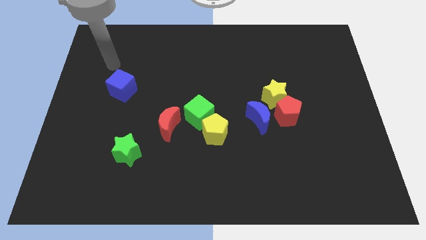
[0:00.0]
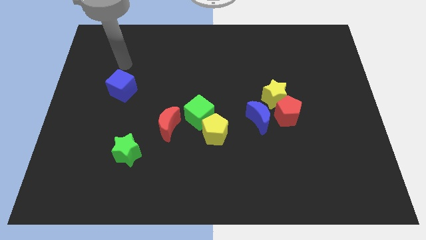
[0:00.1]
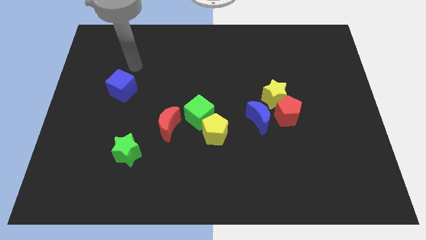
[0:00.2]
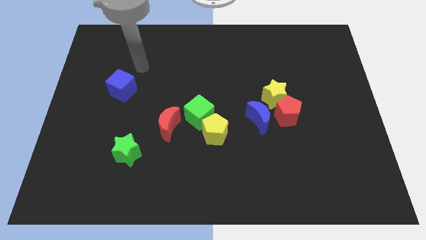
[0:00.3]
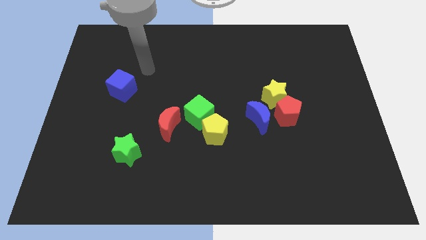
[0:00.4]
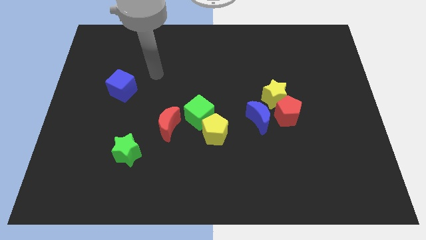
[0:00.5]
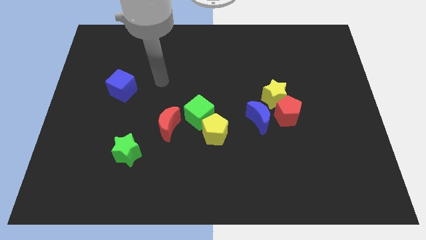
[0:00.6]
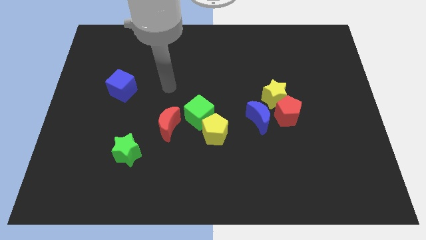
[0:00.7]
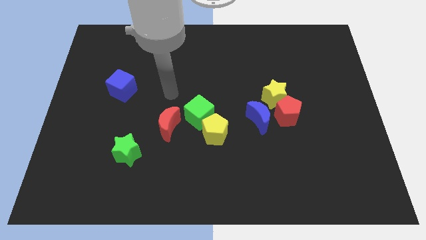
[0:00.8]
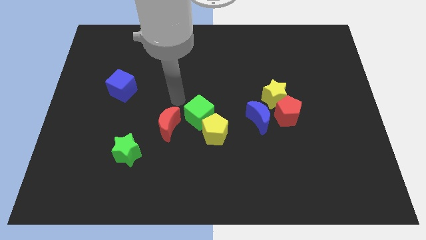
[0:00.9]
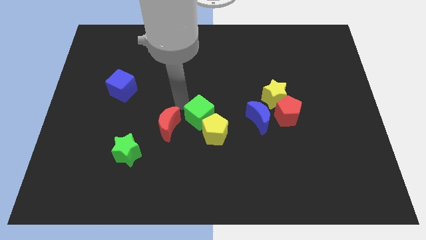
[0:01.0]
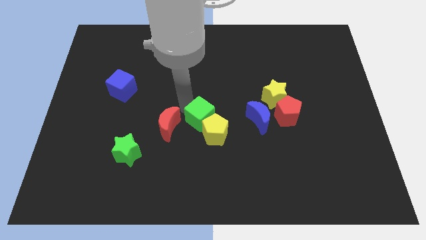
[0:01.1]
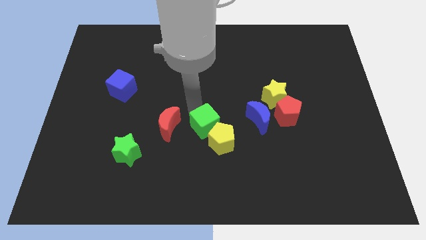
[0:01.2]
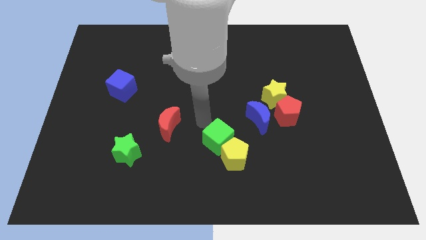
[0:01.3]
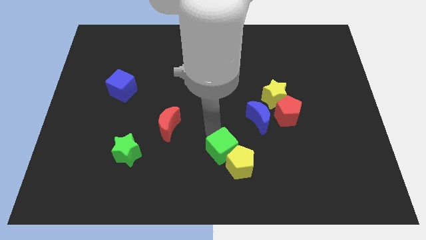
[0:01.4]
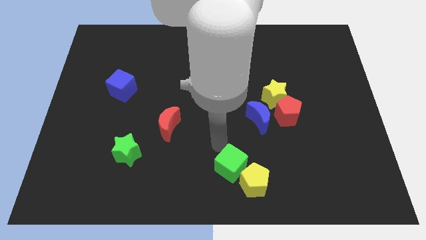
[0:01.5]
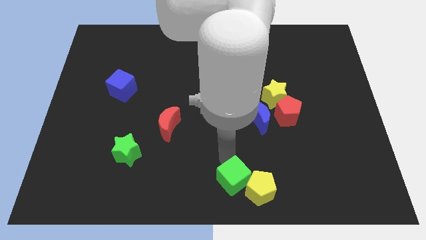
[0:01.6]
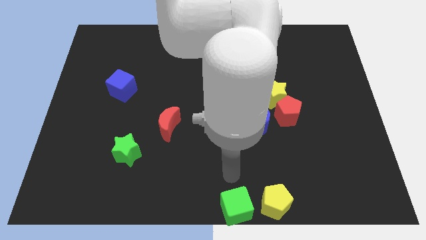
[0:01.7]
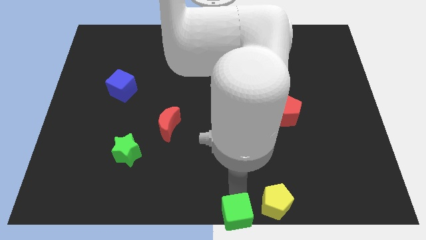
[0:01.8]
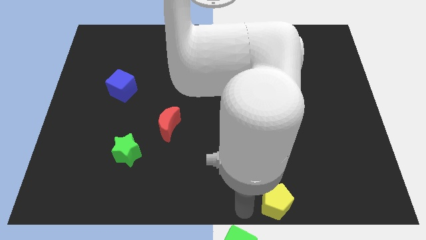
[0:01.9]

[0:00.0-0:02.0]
pull the yellow pentagon apart from the green cube

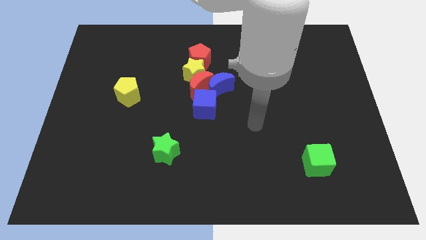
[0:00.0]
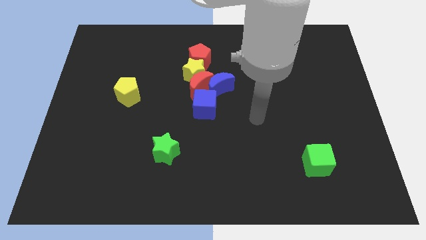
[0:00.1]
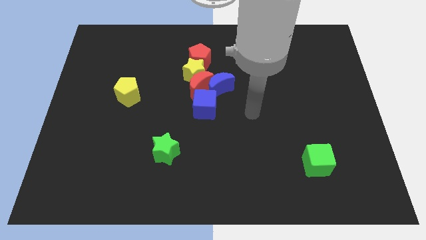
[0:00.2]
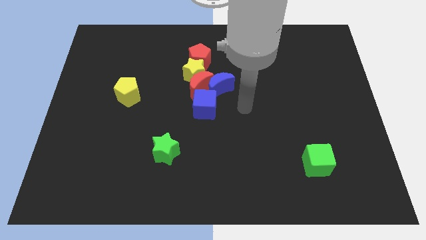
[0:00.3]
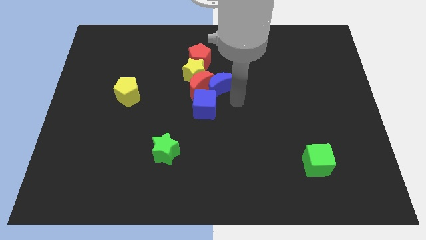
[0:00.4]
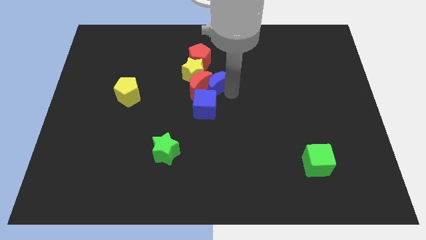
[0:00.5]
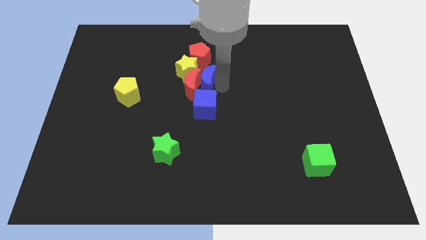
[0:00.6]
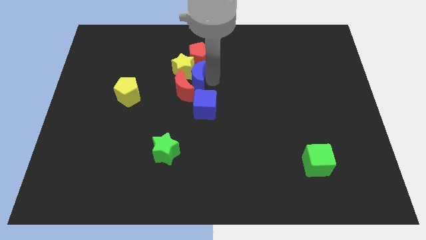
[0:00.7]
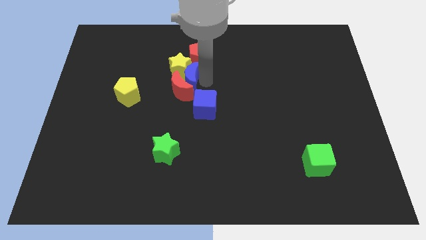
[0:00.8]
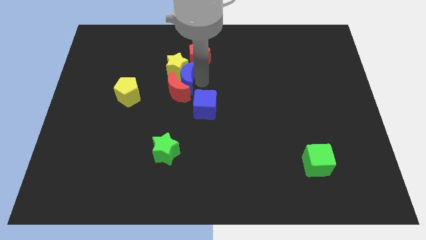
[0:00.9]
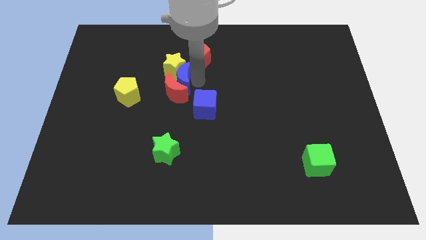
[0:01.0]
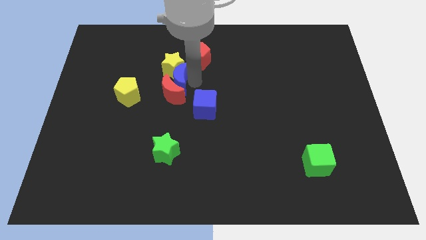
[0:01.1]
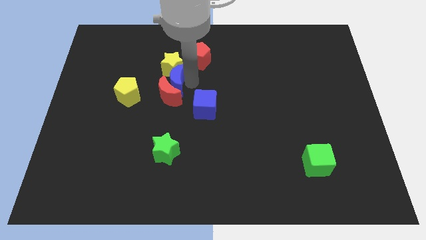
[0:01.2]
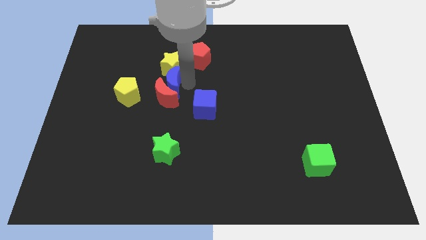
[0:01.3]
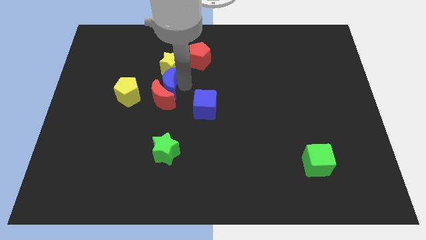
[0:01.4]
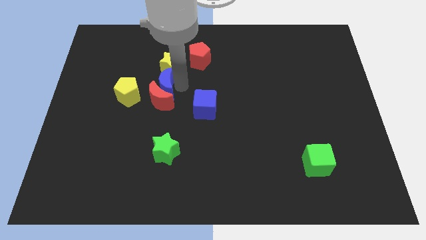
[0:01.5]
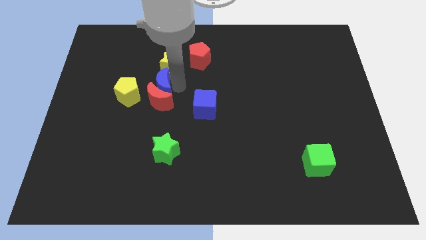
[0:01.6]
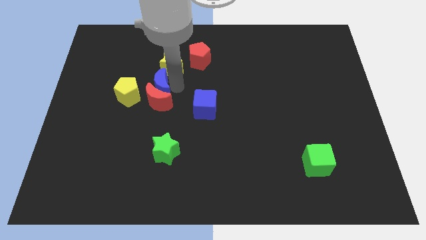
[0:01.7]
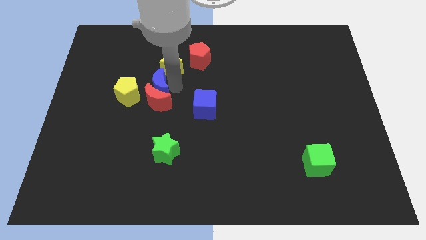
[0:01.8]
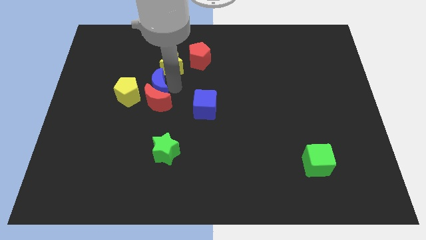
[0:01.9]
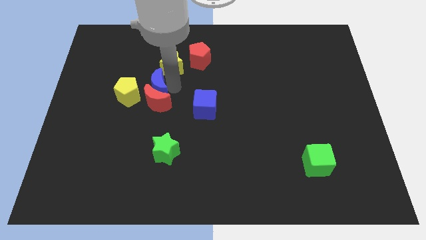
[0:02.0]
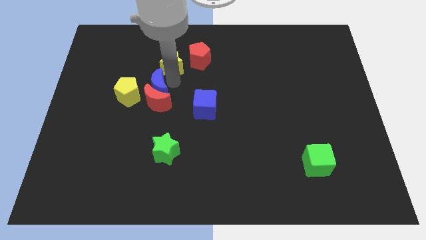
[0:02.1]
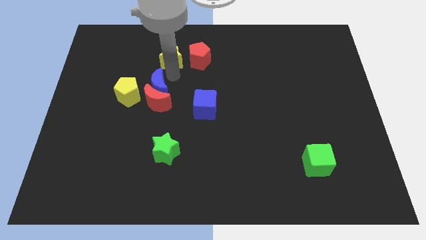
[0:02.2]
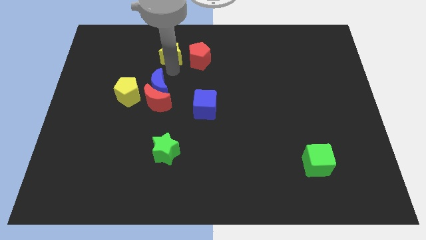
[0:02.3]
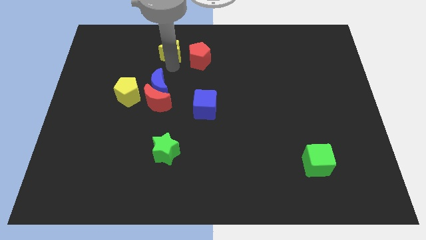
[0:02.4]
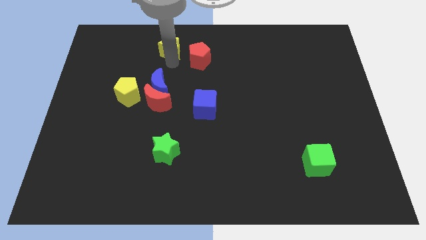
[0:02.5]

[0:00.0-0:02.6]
move the yellow star away from the red moon, red pentagon, and blue moon

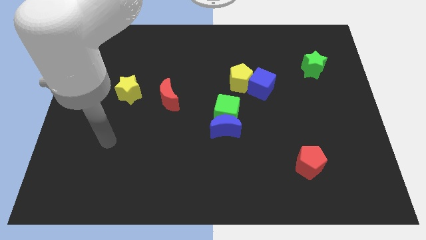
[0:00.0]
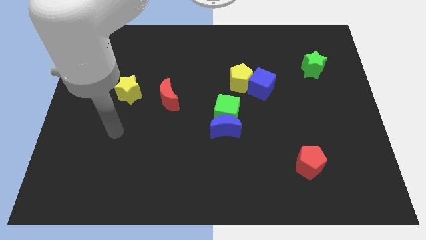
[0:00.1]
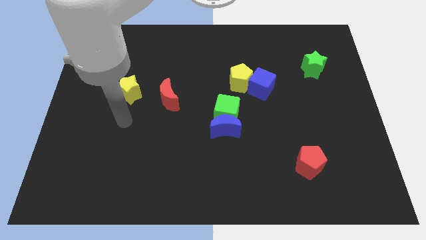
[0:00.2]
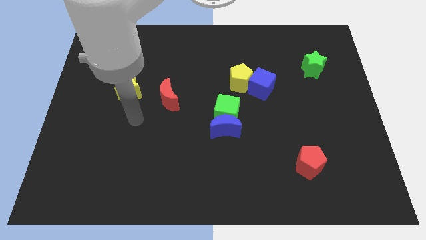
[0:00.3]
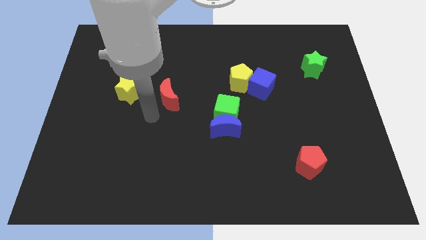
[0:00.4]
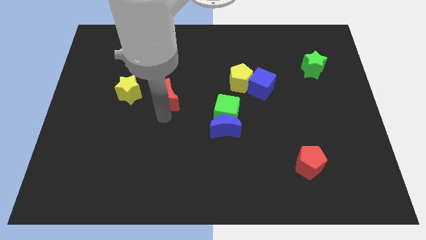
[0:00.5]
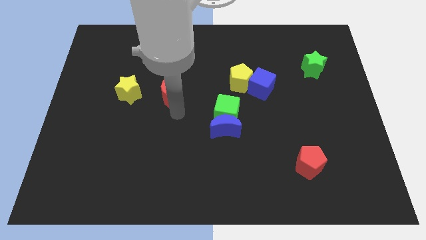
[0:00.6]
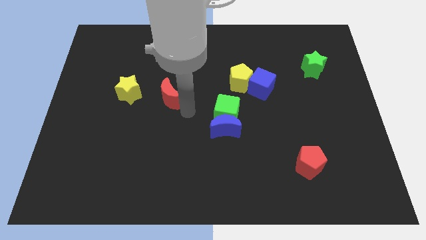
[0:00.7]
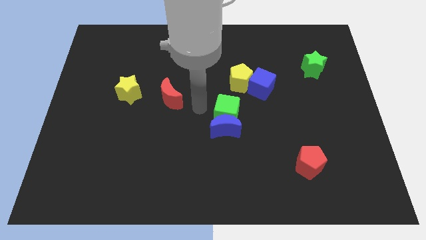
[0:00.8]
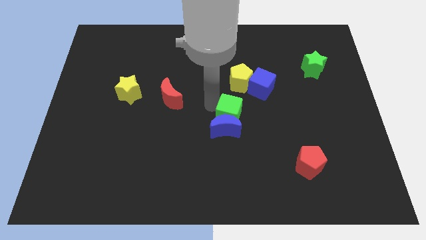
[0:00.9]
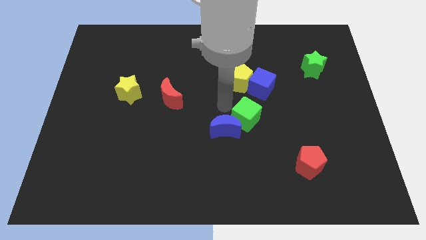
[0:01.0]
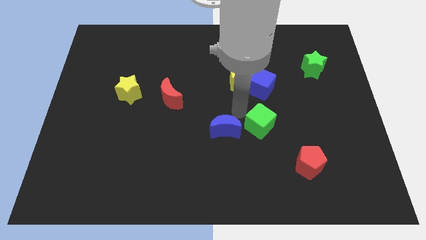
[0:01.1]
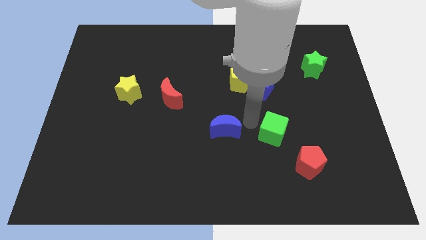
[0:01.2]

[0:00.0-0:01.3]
move the blue moon away from the green cube

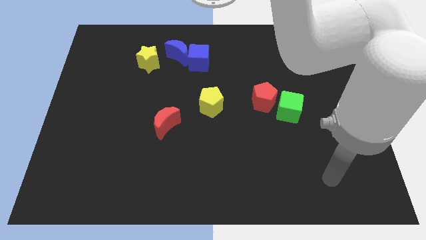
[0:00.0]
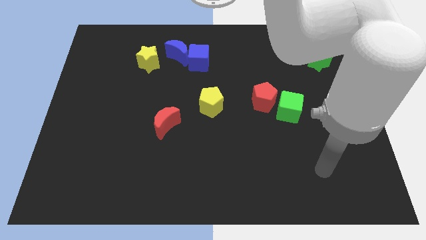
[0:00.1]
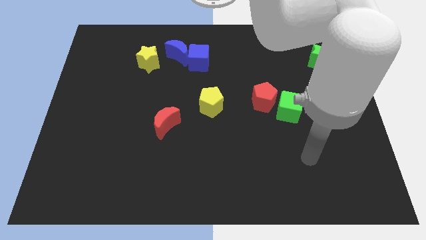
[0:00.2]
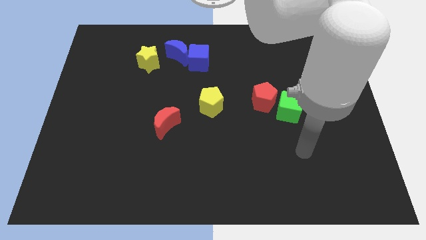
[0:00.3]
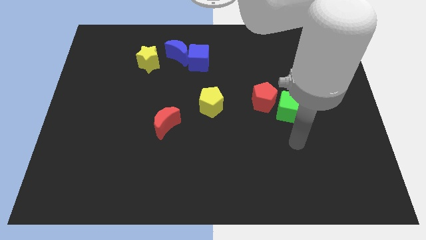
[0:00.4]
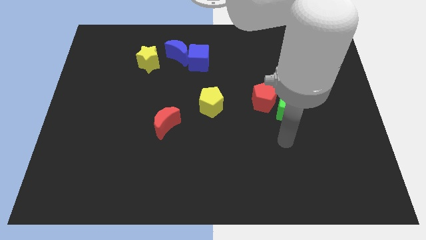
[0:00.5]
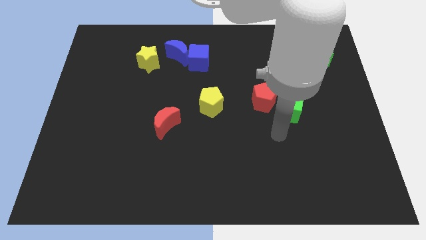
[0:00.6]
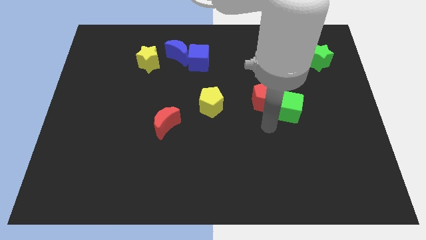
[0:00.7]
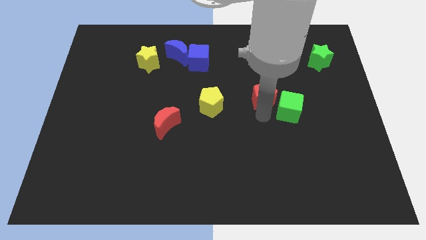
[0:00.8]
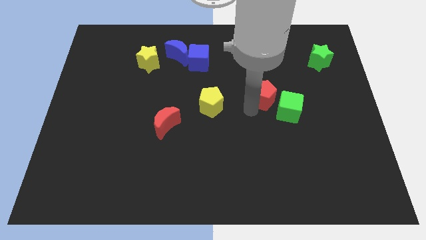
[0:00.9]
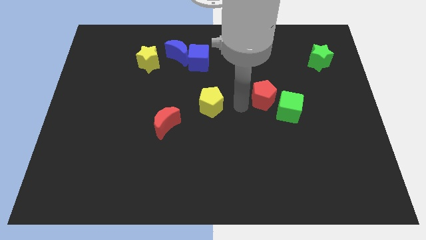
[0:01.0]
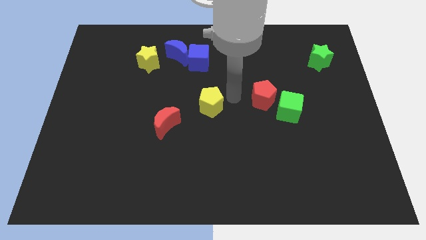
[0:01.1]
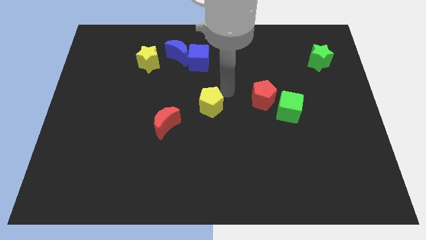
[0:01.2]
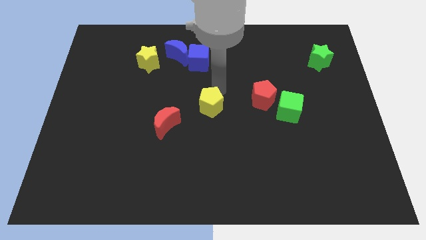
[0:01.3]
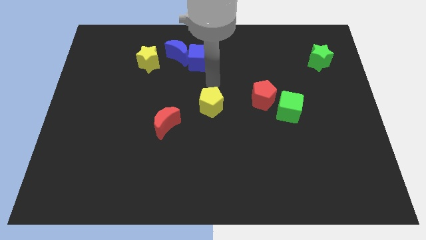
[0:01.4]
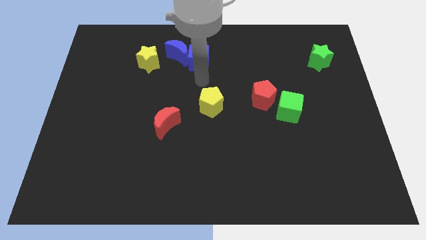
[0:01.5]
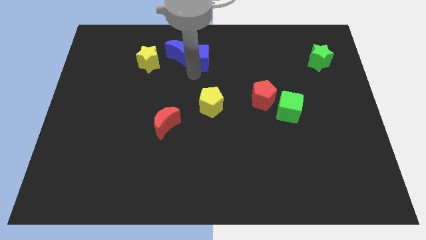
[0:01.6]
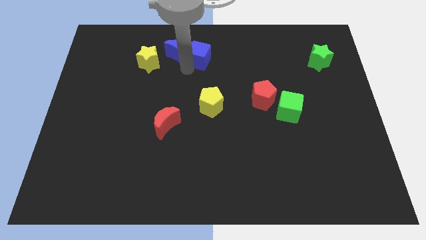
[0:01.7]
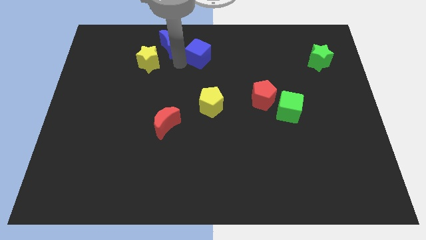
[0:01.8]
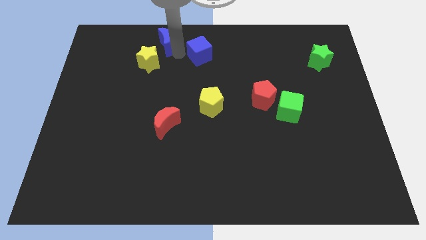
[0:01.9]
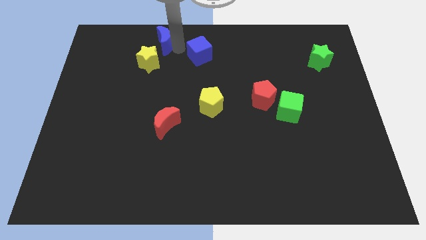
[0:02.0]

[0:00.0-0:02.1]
move the blue cube away from the blue moon

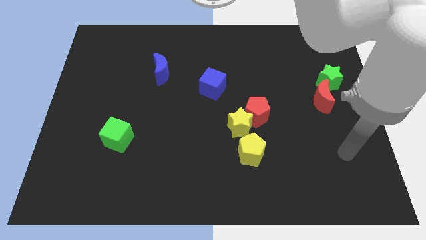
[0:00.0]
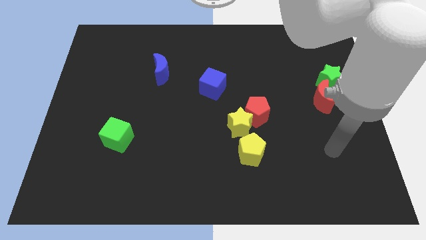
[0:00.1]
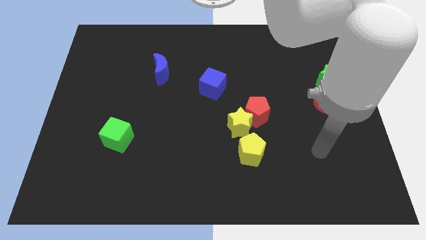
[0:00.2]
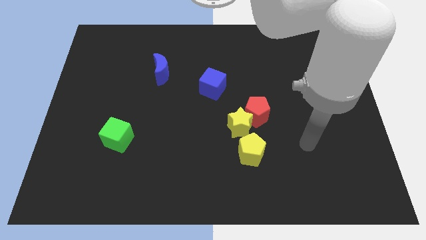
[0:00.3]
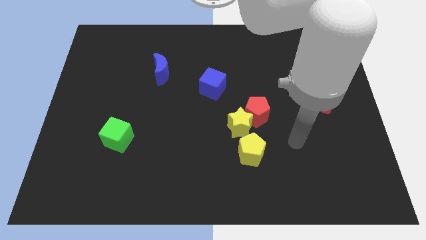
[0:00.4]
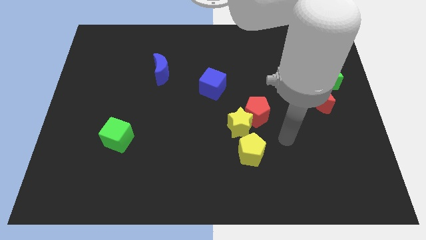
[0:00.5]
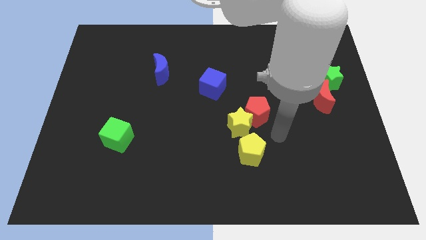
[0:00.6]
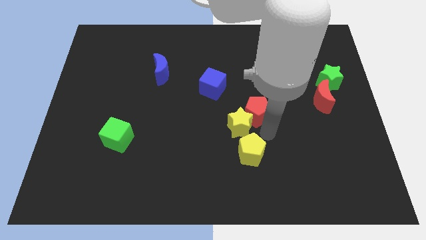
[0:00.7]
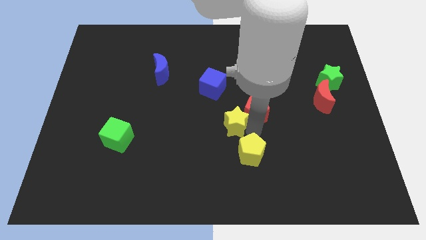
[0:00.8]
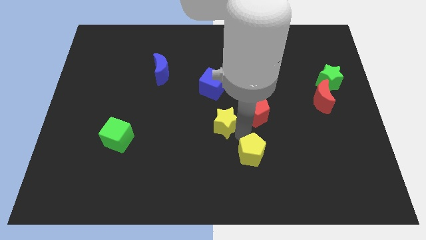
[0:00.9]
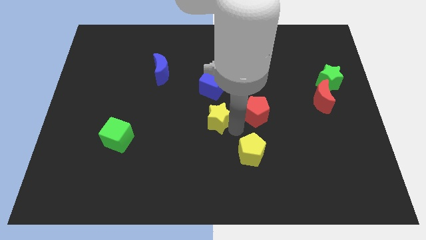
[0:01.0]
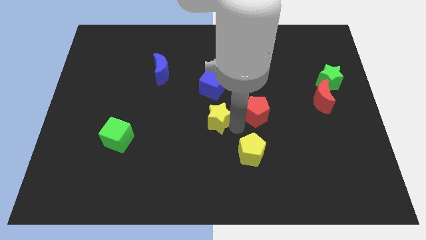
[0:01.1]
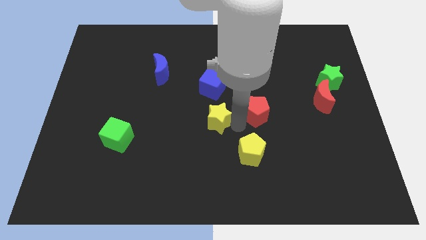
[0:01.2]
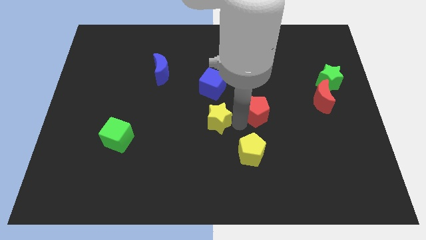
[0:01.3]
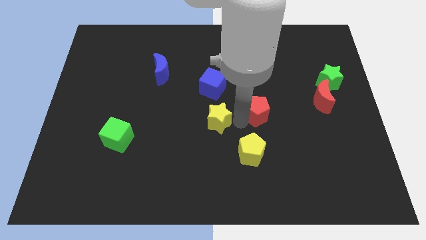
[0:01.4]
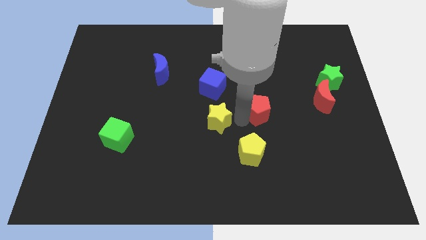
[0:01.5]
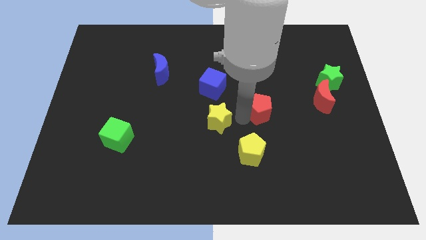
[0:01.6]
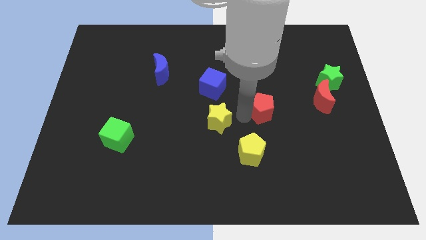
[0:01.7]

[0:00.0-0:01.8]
move the red pentagon away from the yellow star
